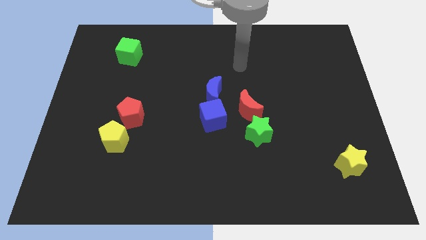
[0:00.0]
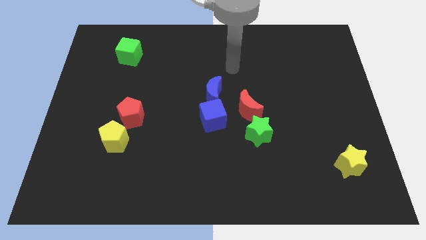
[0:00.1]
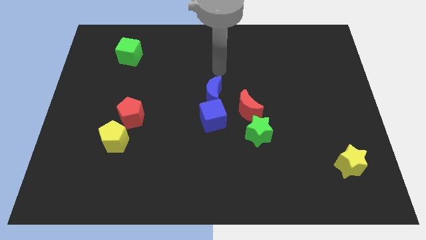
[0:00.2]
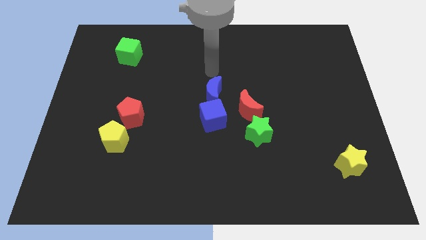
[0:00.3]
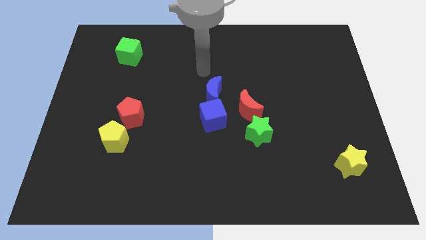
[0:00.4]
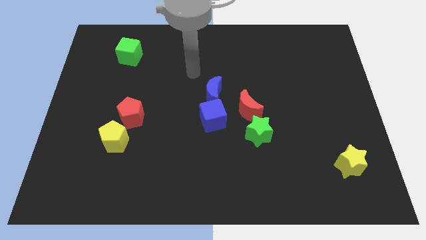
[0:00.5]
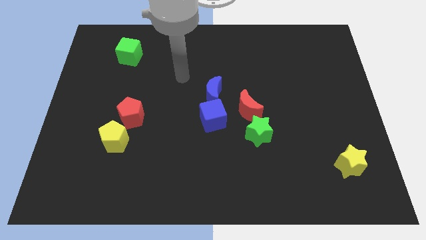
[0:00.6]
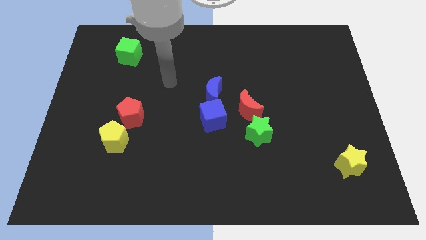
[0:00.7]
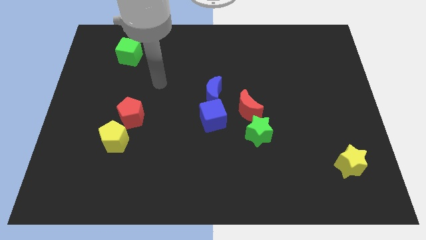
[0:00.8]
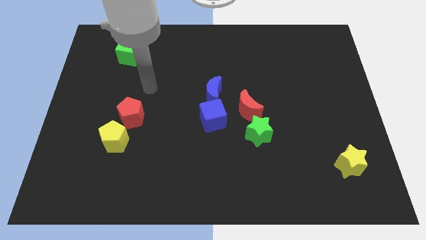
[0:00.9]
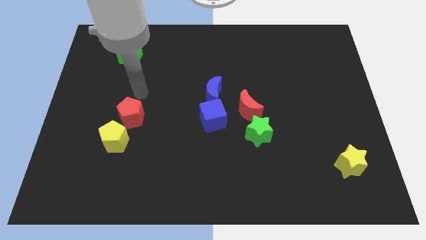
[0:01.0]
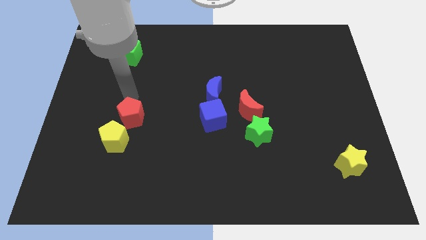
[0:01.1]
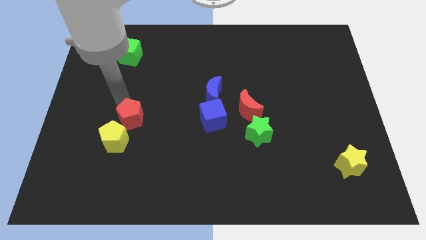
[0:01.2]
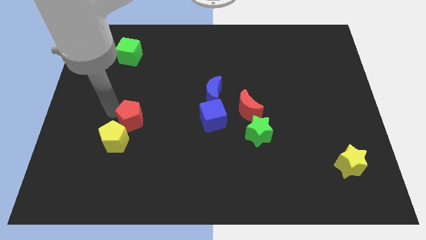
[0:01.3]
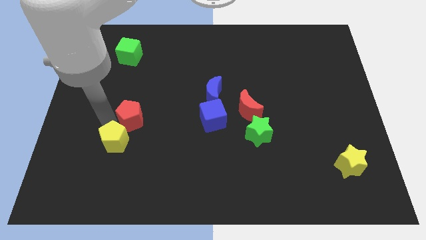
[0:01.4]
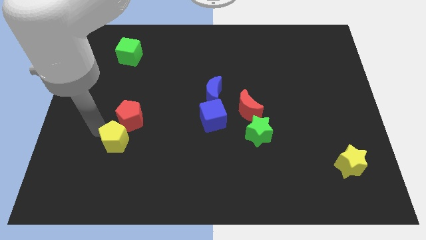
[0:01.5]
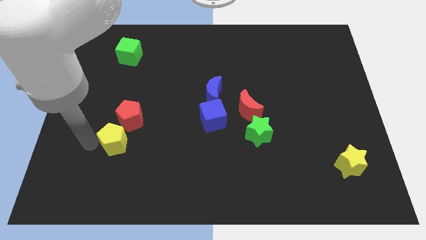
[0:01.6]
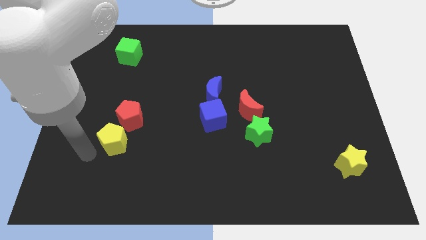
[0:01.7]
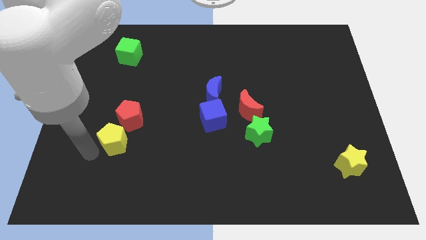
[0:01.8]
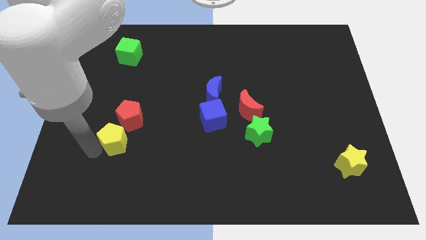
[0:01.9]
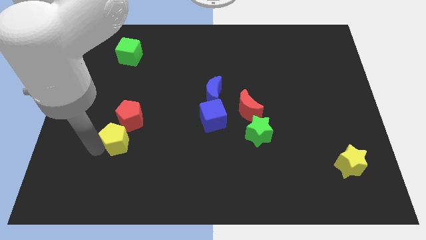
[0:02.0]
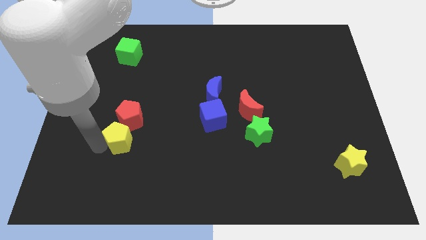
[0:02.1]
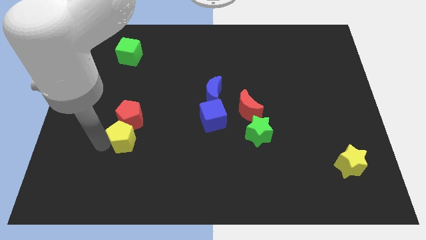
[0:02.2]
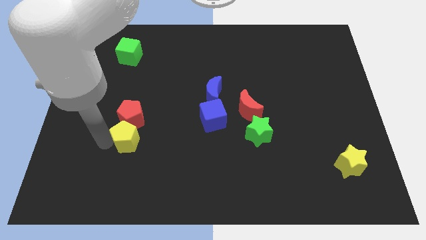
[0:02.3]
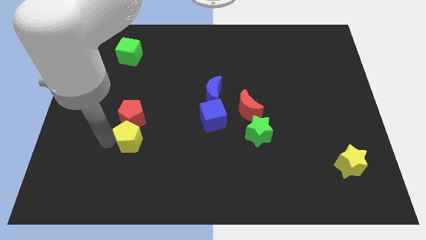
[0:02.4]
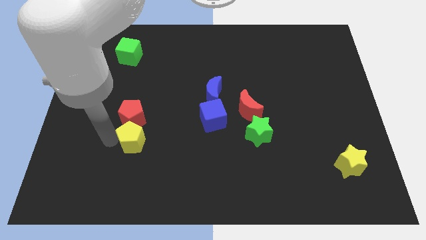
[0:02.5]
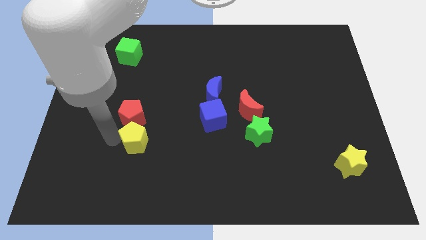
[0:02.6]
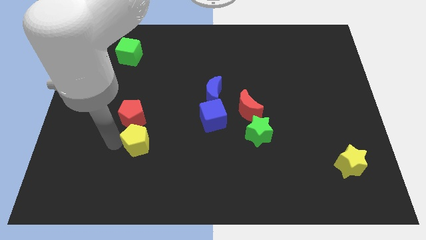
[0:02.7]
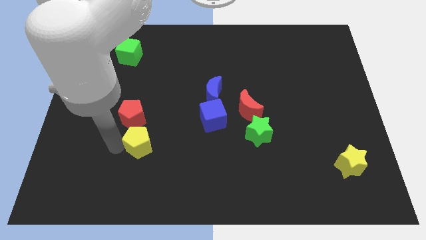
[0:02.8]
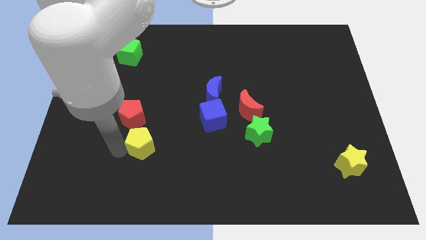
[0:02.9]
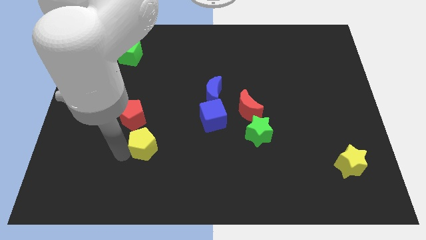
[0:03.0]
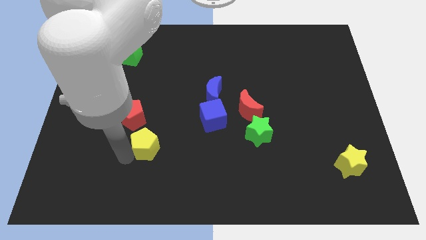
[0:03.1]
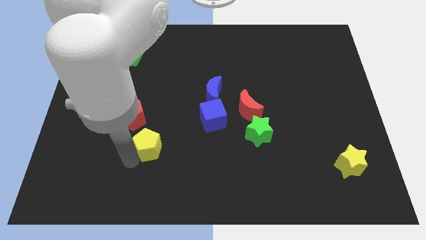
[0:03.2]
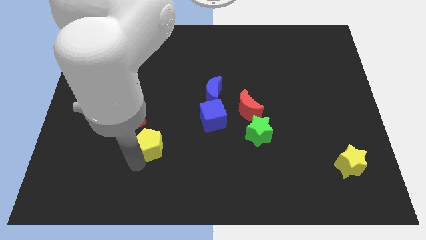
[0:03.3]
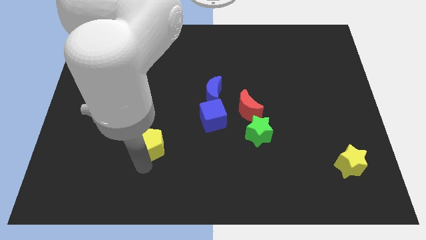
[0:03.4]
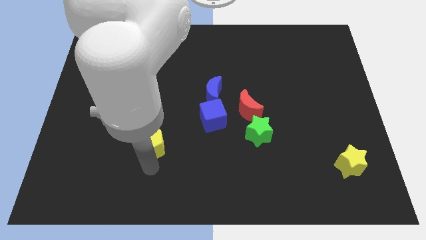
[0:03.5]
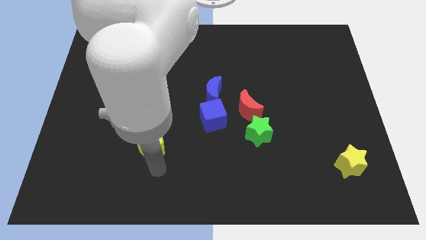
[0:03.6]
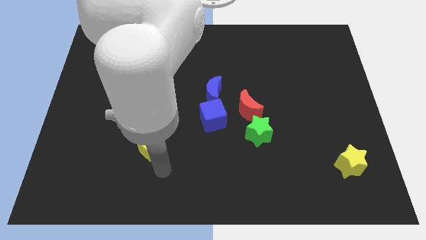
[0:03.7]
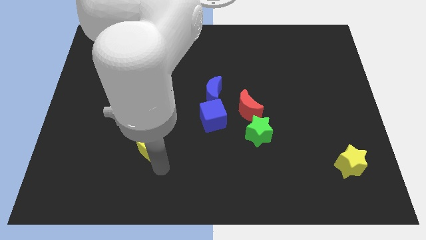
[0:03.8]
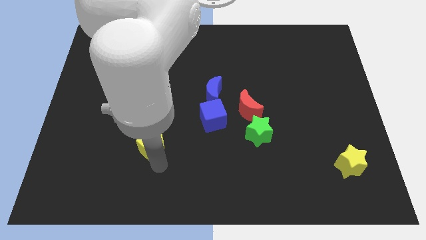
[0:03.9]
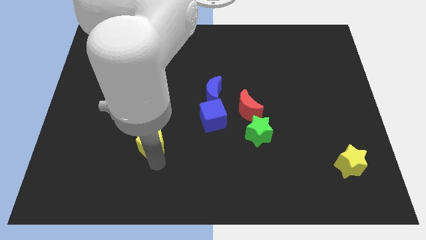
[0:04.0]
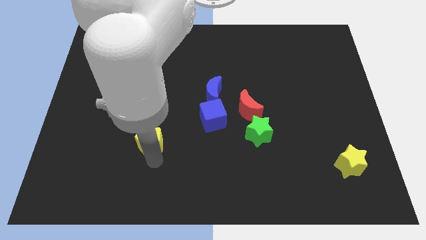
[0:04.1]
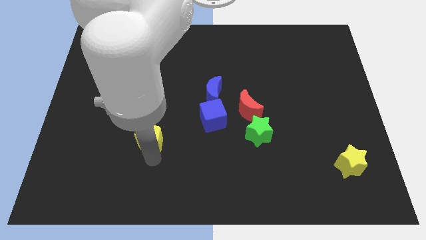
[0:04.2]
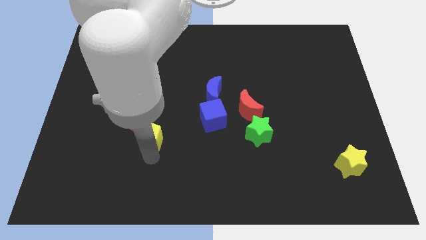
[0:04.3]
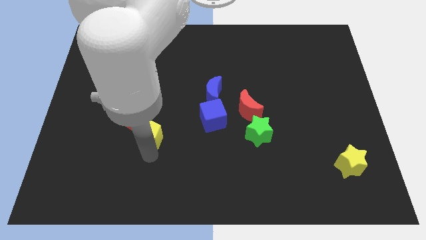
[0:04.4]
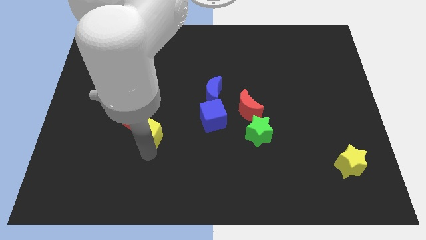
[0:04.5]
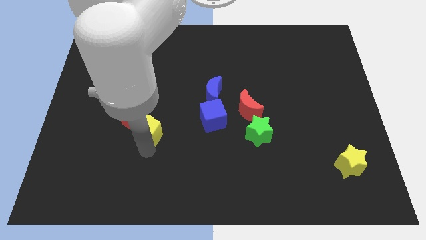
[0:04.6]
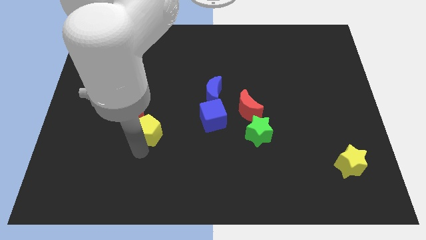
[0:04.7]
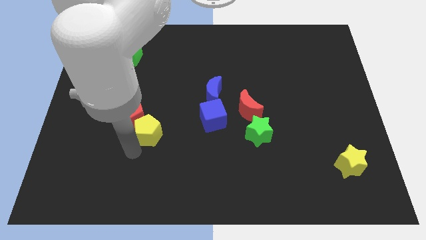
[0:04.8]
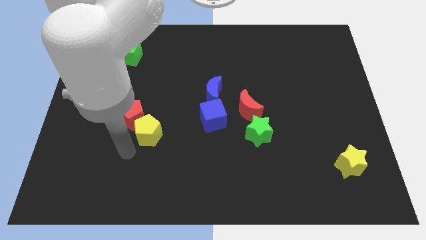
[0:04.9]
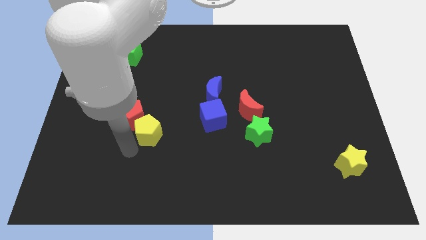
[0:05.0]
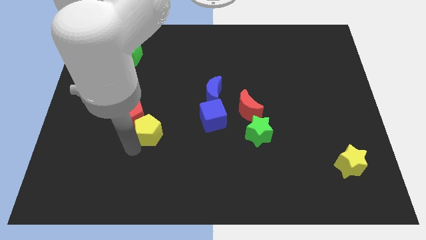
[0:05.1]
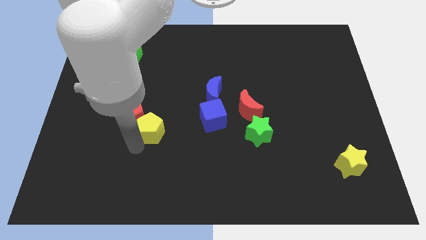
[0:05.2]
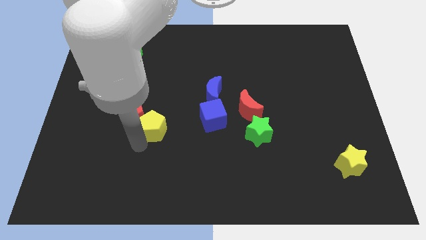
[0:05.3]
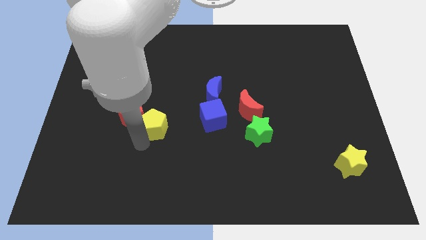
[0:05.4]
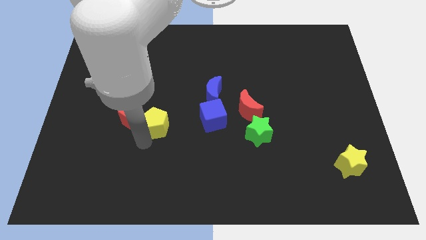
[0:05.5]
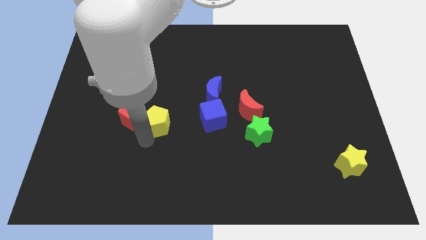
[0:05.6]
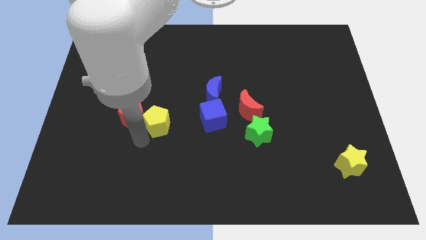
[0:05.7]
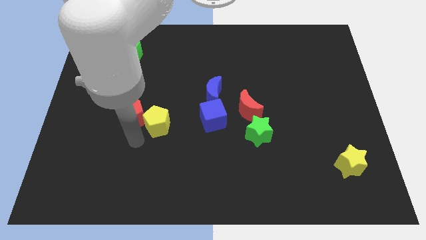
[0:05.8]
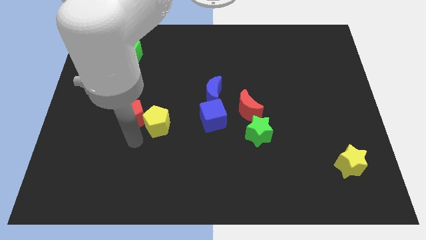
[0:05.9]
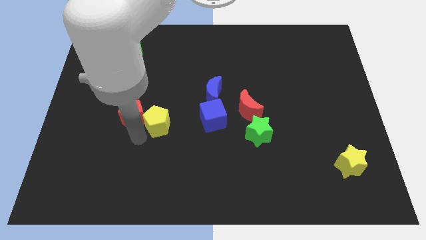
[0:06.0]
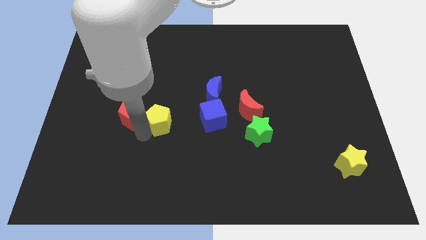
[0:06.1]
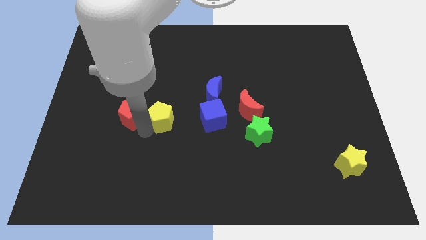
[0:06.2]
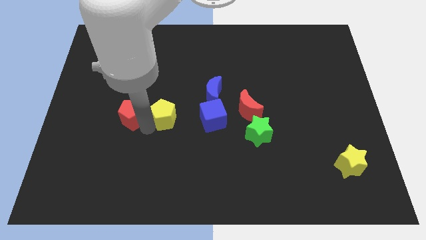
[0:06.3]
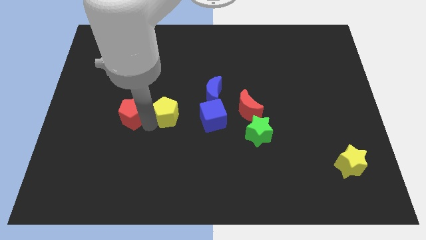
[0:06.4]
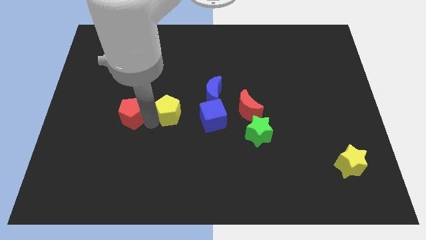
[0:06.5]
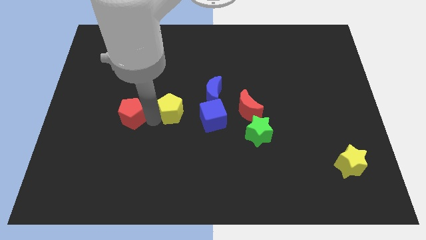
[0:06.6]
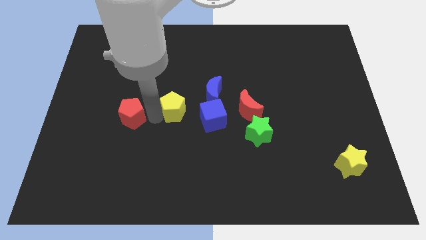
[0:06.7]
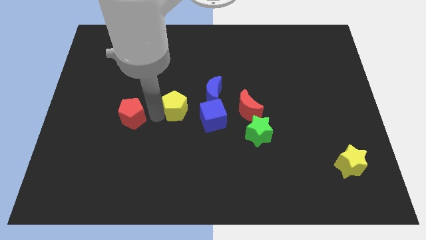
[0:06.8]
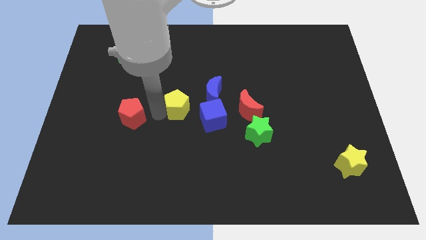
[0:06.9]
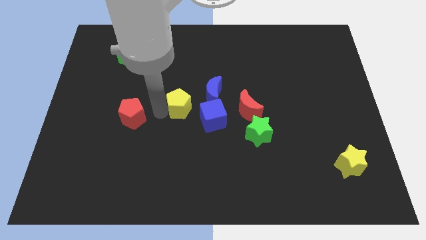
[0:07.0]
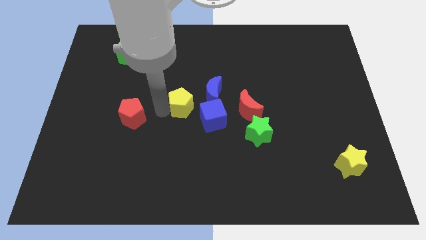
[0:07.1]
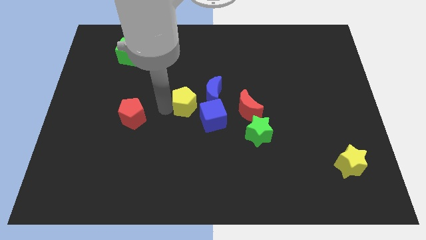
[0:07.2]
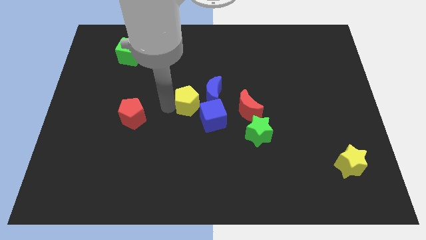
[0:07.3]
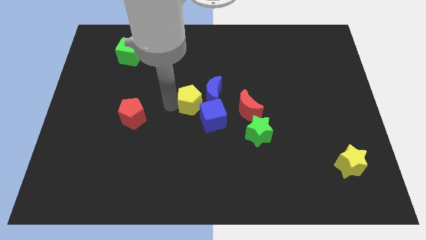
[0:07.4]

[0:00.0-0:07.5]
put the yellow pentagon towards the blue moon

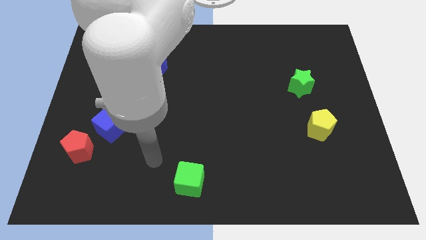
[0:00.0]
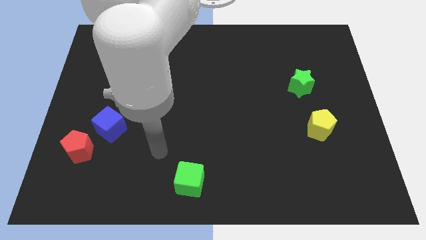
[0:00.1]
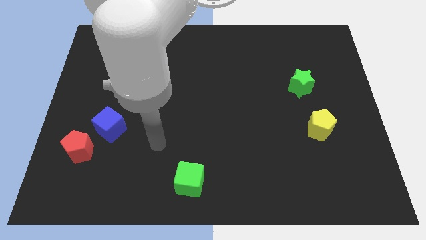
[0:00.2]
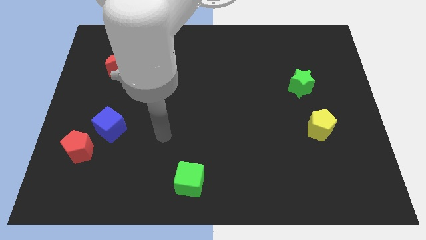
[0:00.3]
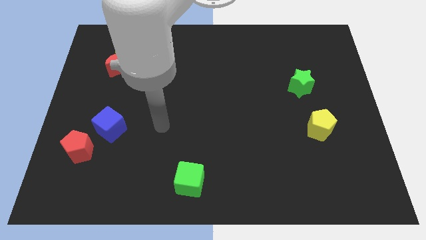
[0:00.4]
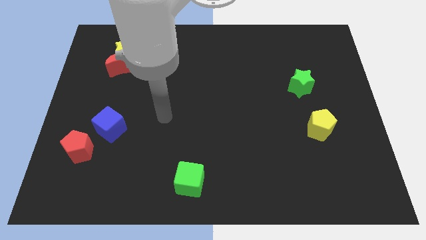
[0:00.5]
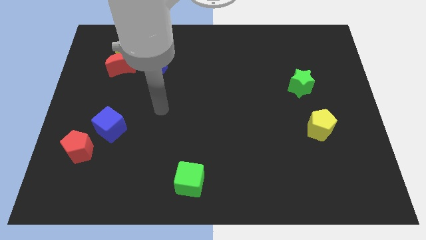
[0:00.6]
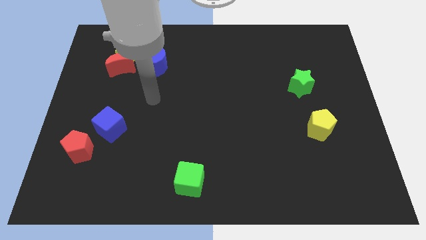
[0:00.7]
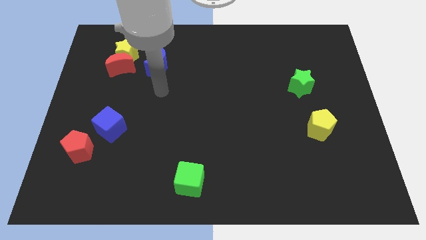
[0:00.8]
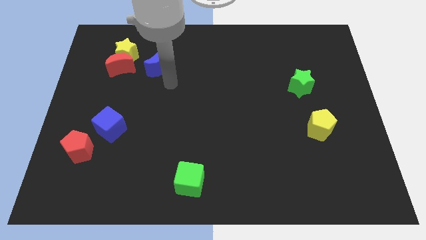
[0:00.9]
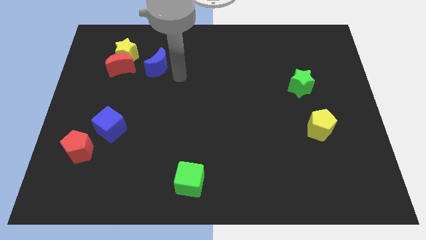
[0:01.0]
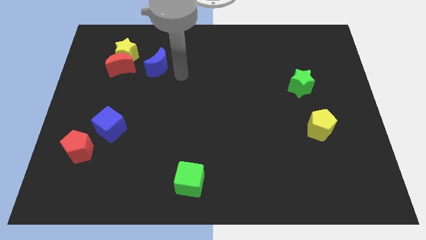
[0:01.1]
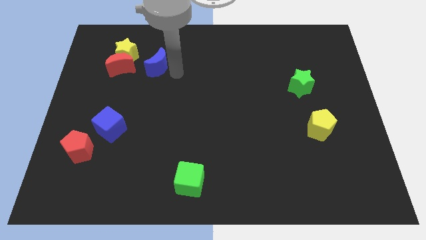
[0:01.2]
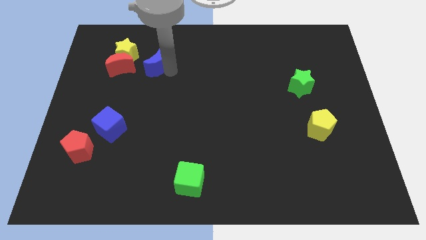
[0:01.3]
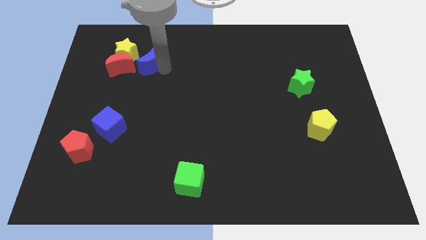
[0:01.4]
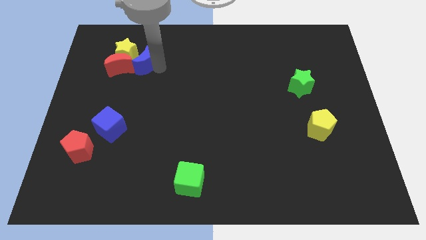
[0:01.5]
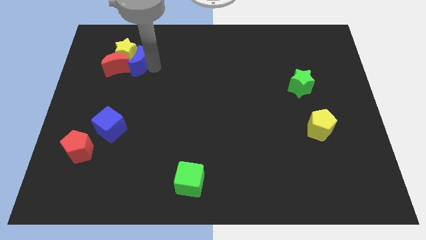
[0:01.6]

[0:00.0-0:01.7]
slide the blue moon towards the yellow star
